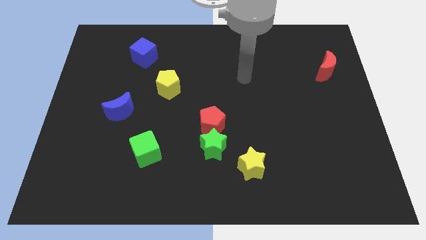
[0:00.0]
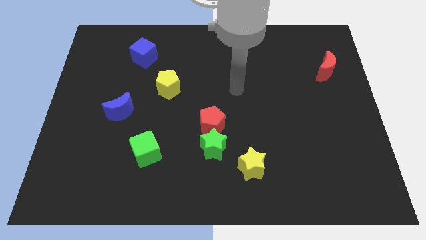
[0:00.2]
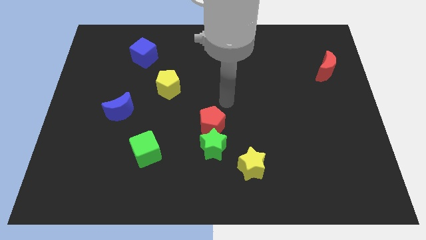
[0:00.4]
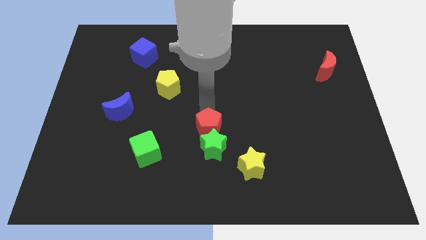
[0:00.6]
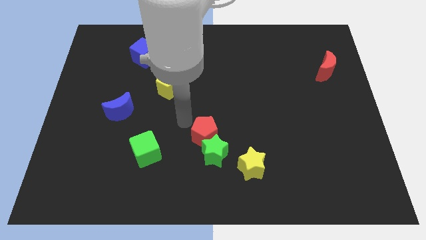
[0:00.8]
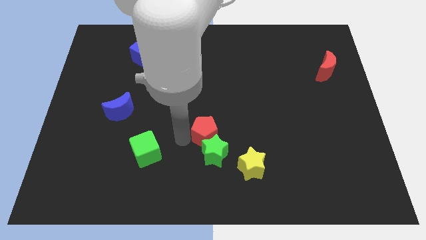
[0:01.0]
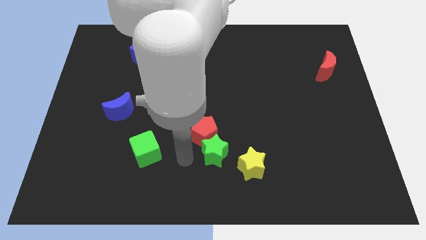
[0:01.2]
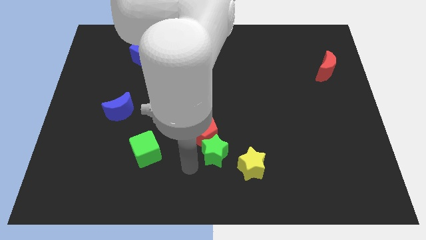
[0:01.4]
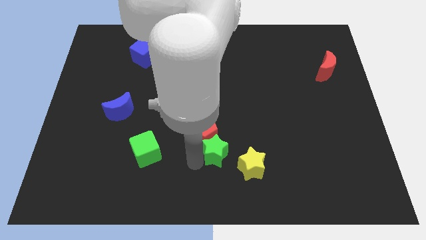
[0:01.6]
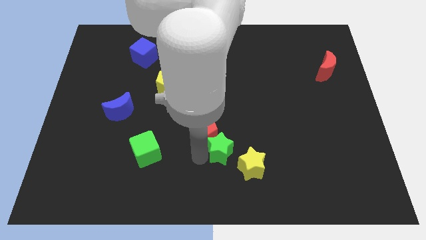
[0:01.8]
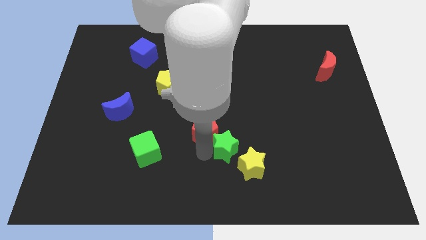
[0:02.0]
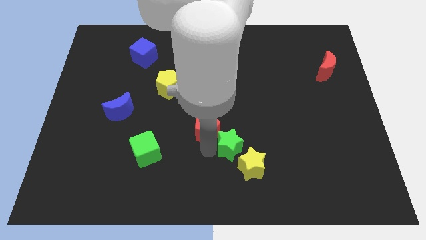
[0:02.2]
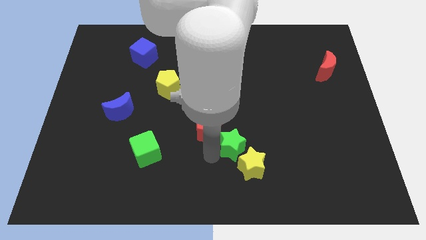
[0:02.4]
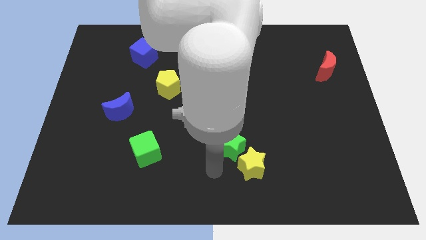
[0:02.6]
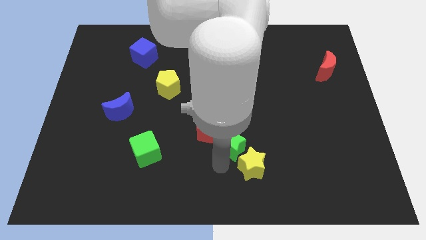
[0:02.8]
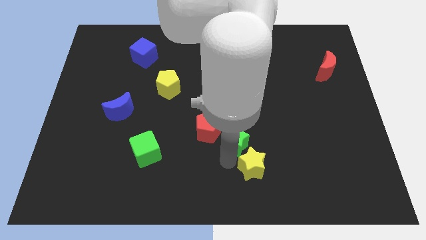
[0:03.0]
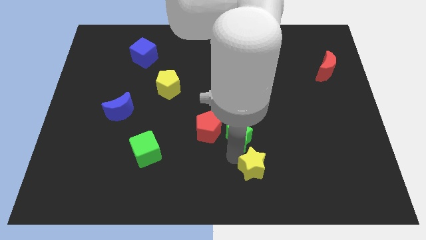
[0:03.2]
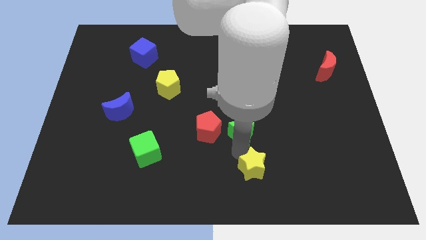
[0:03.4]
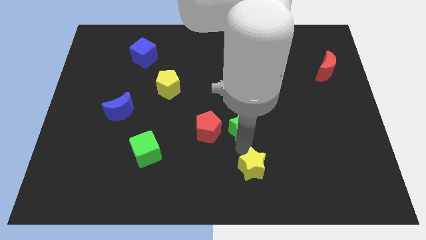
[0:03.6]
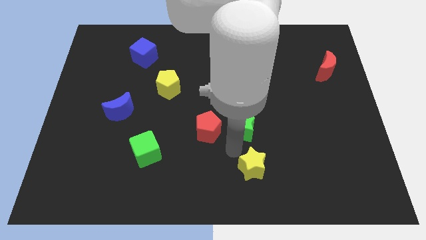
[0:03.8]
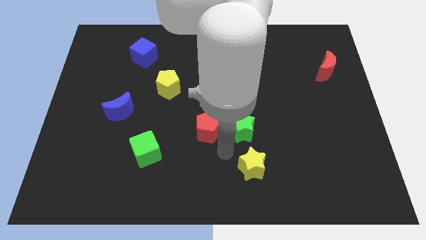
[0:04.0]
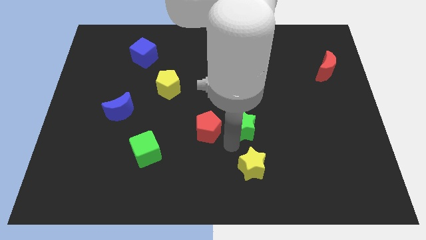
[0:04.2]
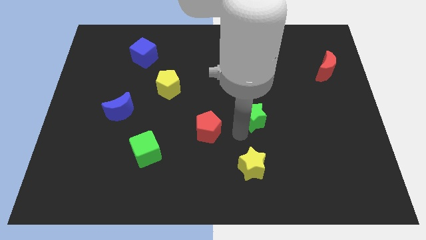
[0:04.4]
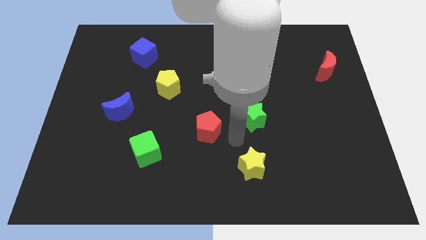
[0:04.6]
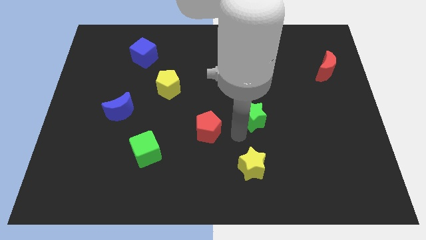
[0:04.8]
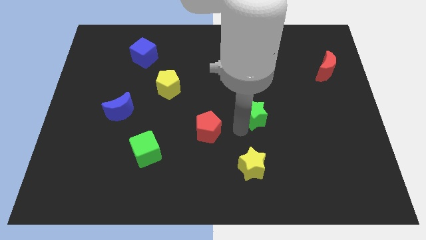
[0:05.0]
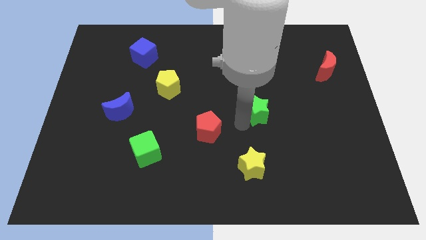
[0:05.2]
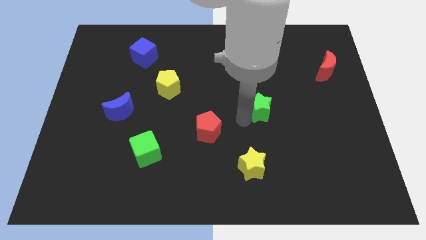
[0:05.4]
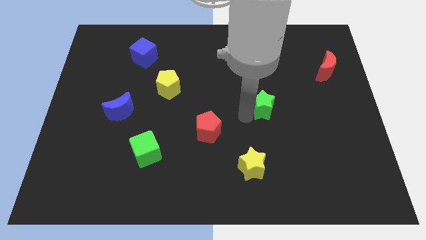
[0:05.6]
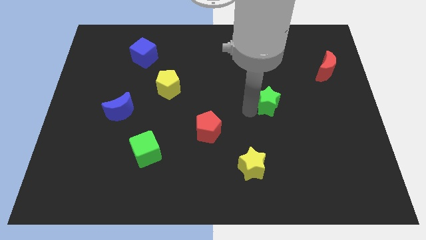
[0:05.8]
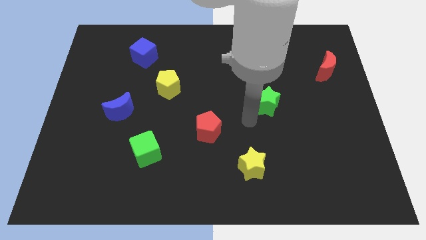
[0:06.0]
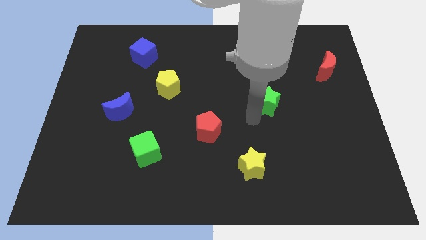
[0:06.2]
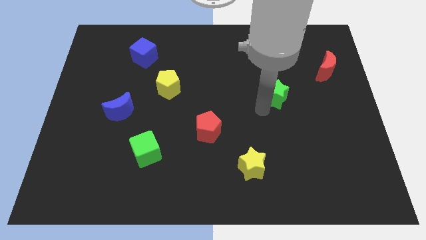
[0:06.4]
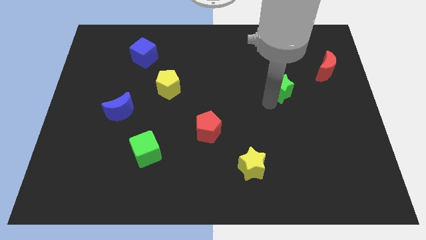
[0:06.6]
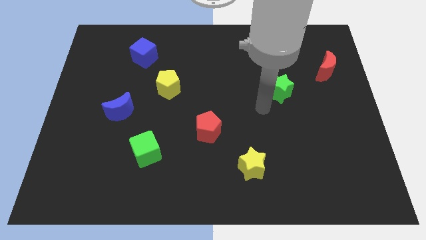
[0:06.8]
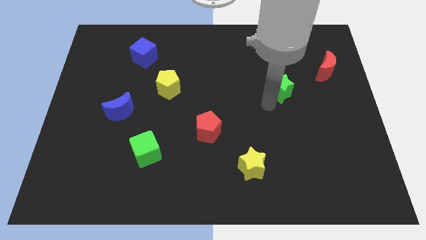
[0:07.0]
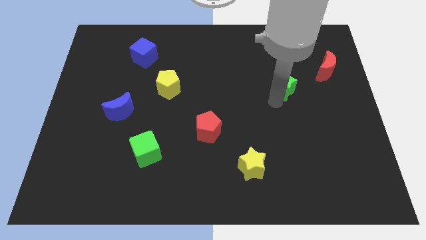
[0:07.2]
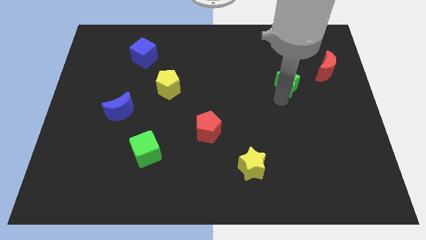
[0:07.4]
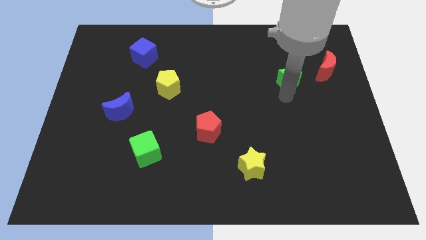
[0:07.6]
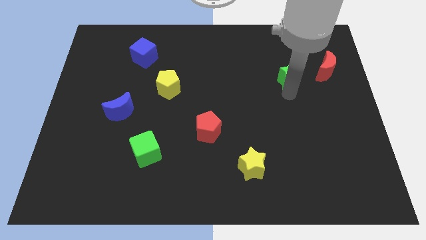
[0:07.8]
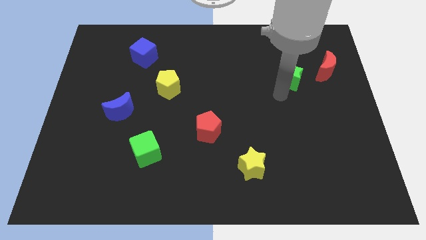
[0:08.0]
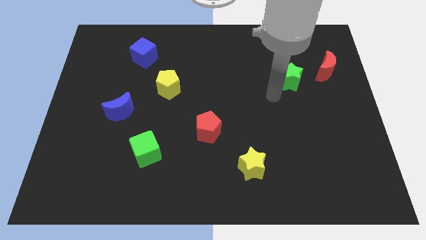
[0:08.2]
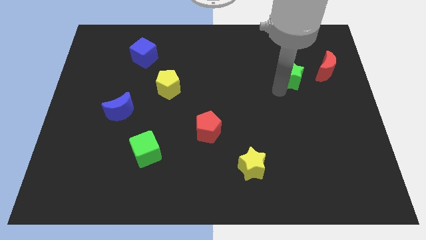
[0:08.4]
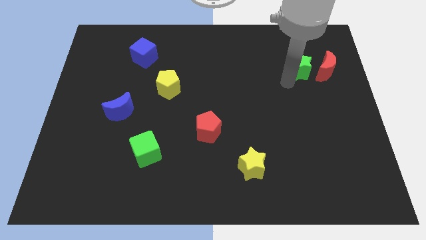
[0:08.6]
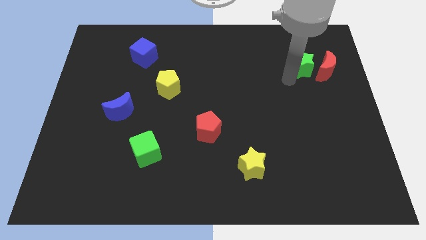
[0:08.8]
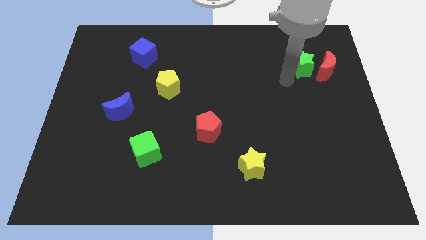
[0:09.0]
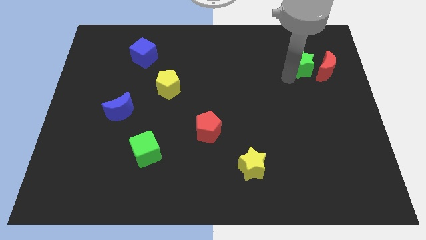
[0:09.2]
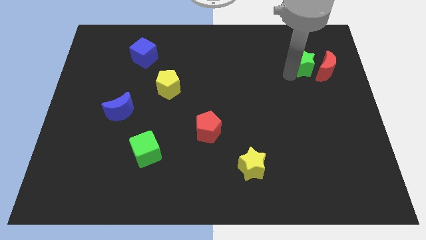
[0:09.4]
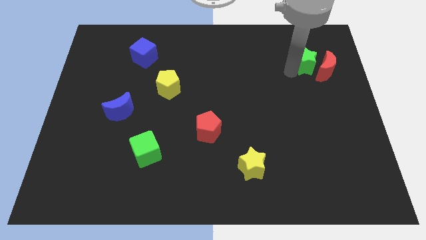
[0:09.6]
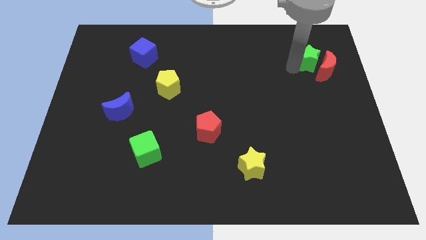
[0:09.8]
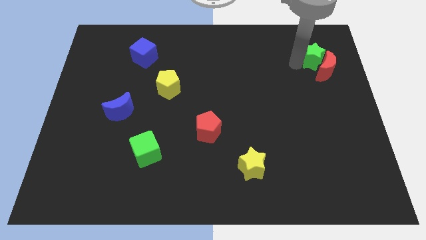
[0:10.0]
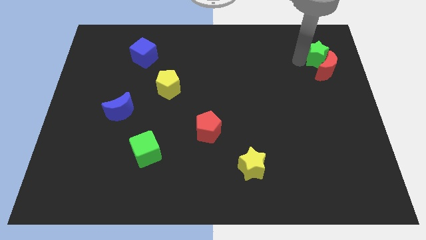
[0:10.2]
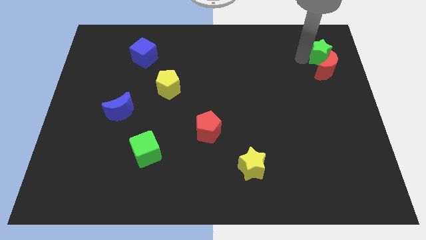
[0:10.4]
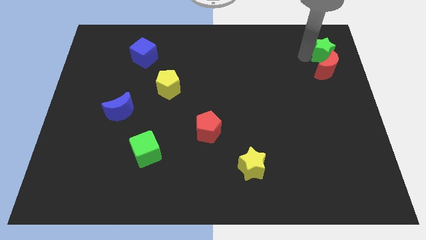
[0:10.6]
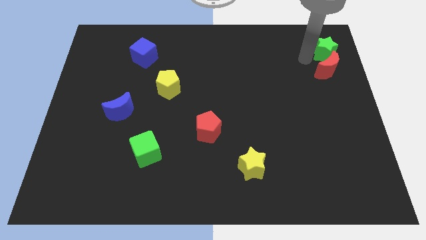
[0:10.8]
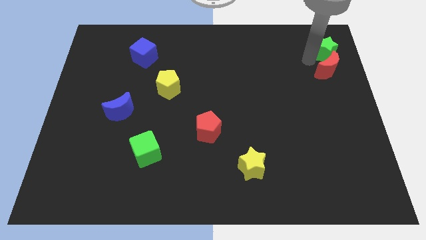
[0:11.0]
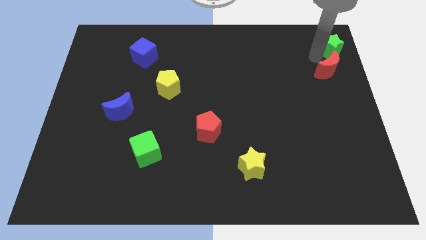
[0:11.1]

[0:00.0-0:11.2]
slide the green star to the top right corner

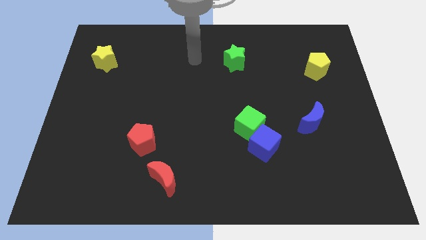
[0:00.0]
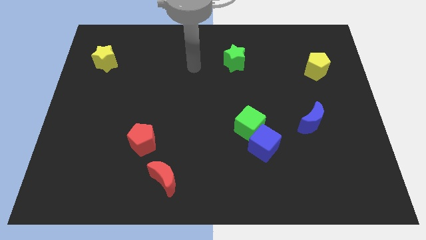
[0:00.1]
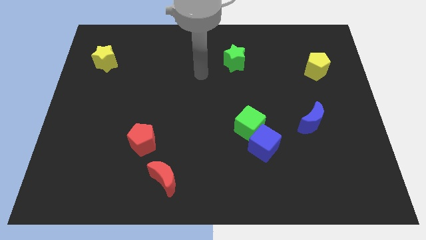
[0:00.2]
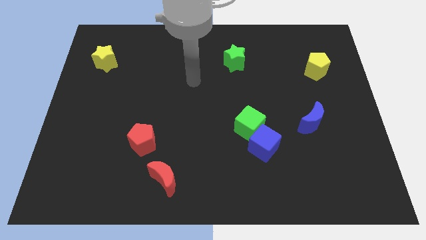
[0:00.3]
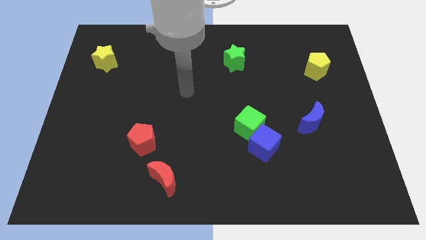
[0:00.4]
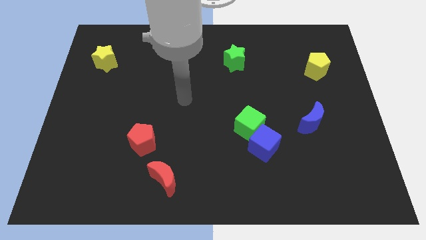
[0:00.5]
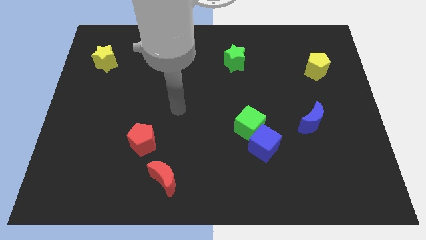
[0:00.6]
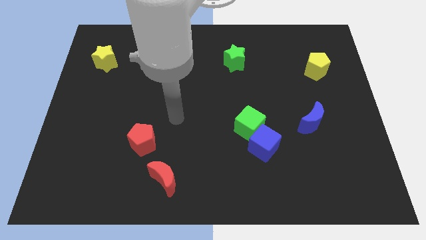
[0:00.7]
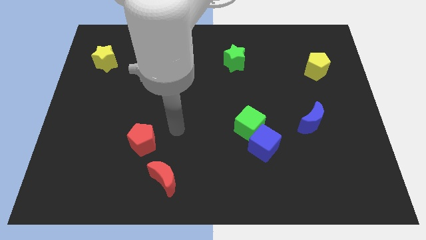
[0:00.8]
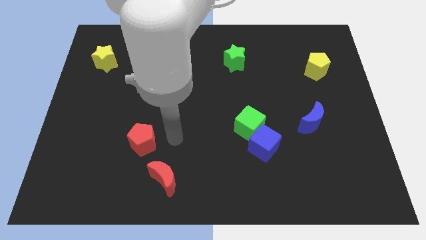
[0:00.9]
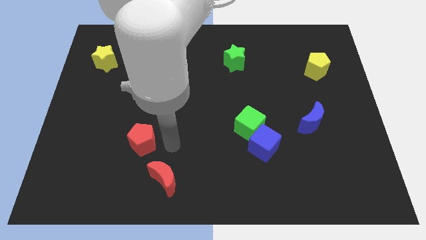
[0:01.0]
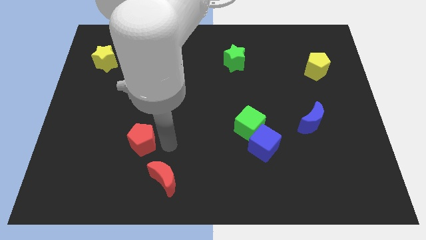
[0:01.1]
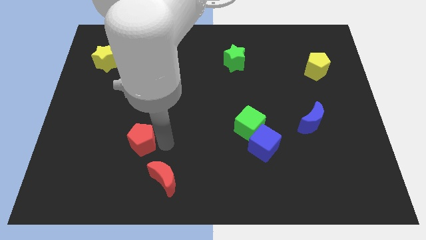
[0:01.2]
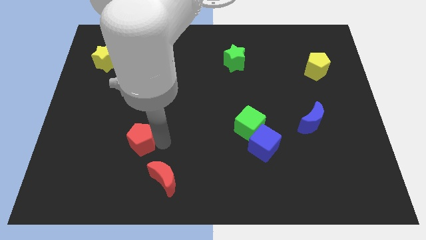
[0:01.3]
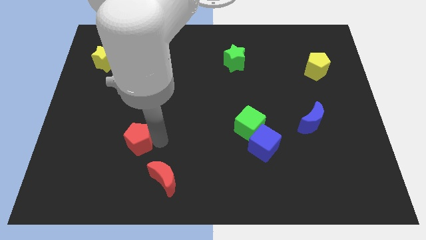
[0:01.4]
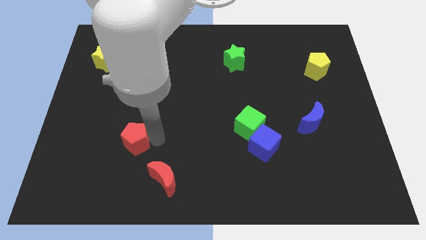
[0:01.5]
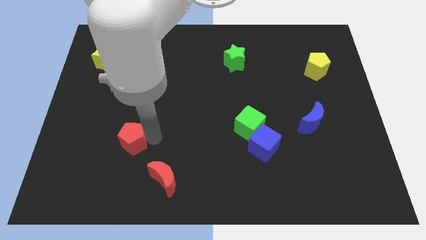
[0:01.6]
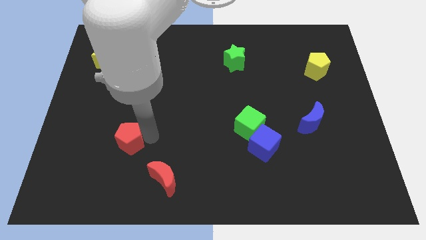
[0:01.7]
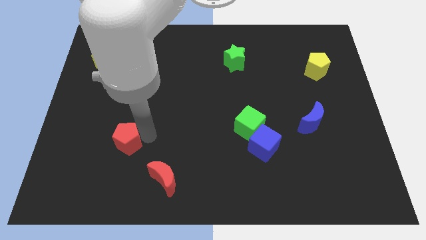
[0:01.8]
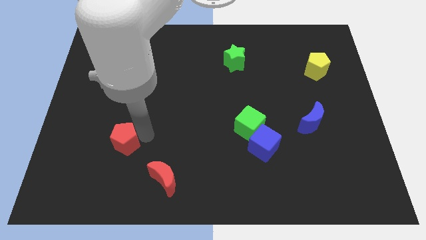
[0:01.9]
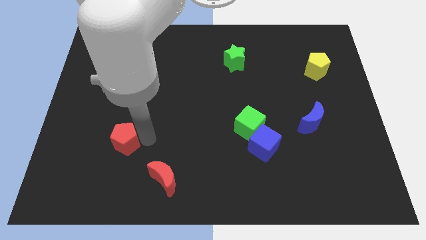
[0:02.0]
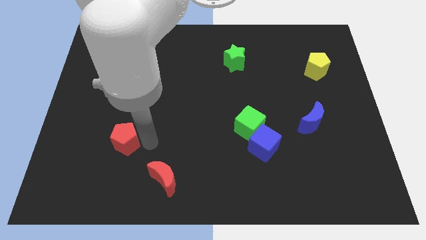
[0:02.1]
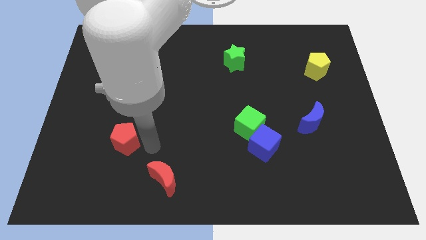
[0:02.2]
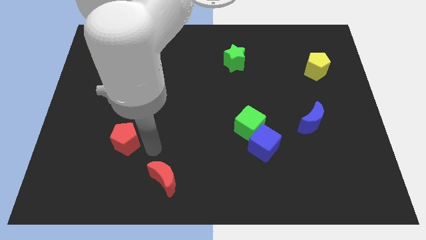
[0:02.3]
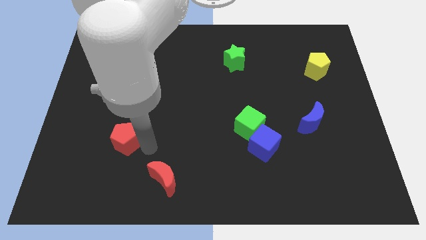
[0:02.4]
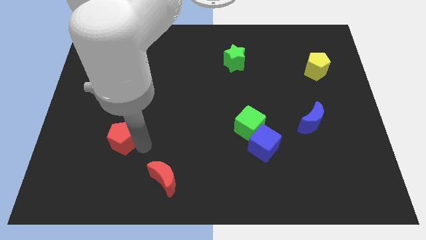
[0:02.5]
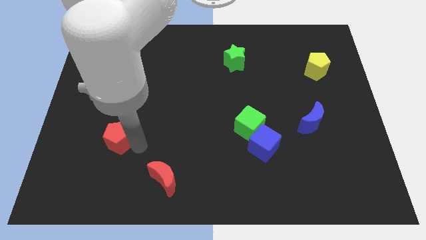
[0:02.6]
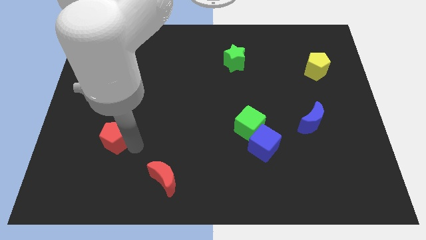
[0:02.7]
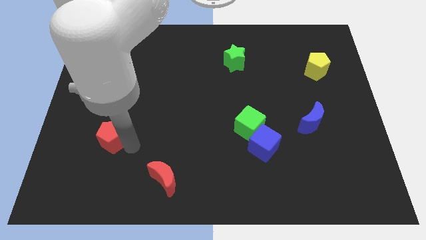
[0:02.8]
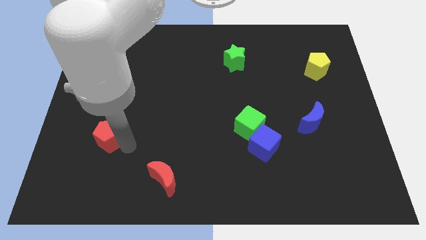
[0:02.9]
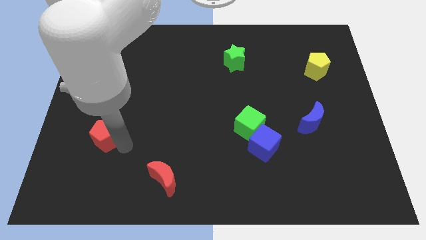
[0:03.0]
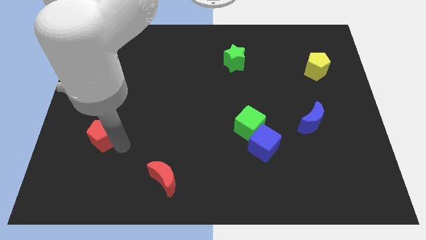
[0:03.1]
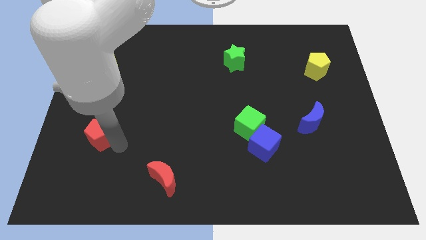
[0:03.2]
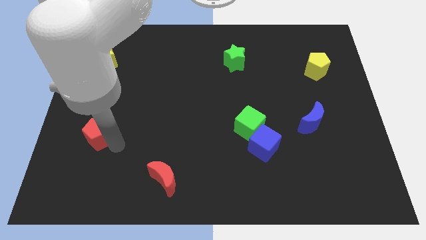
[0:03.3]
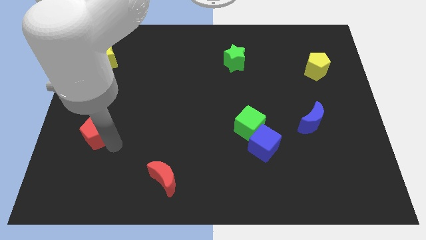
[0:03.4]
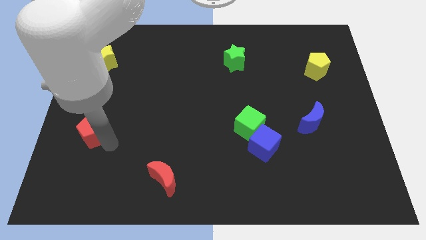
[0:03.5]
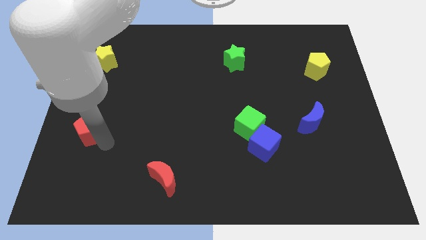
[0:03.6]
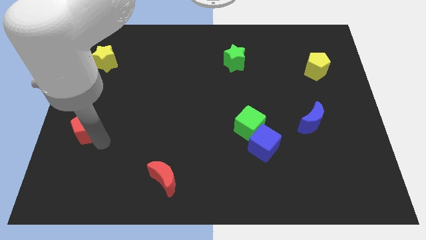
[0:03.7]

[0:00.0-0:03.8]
slide the red pentagon to the center left
